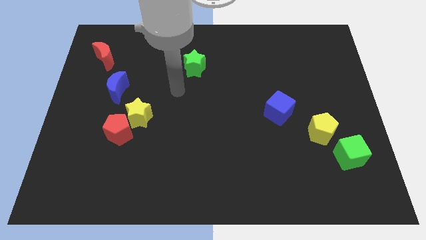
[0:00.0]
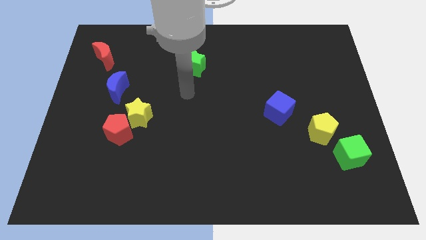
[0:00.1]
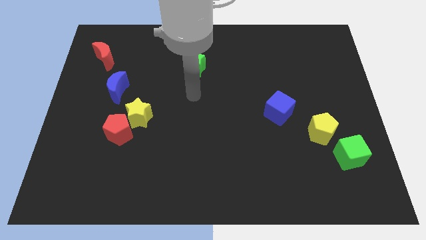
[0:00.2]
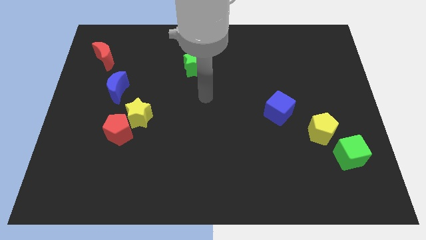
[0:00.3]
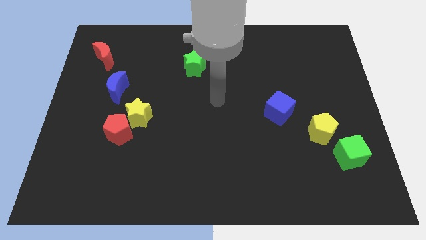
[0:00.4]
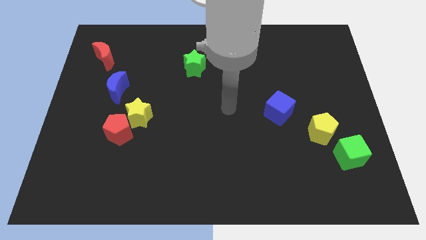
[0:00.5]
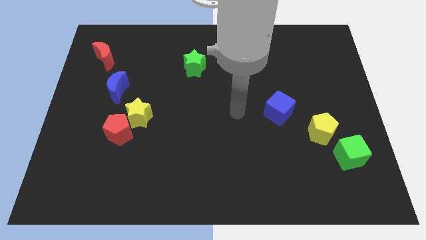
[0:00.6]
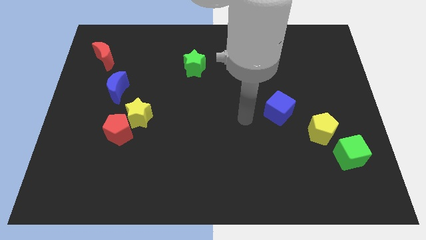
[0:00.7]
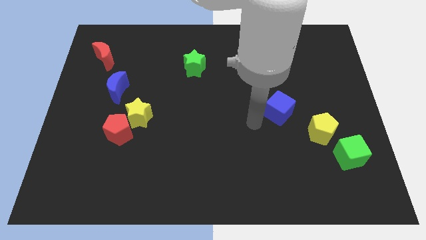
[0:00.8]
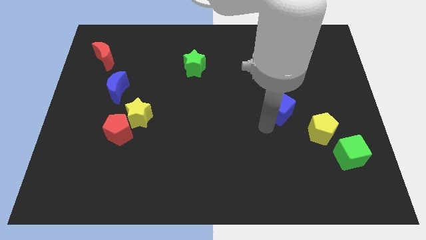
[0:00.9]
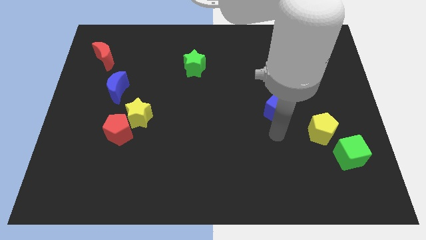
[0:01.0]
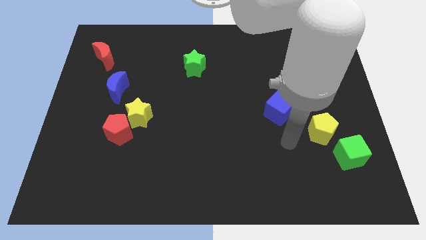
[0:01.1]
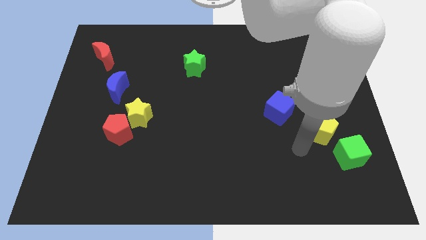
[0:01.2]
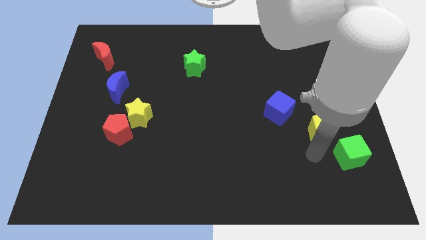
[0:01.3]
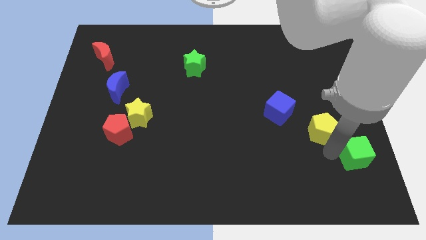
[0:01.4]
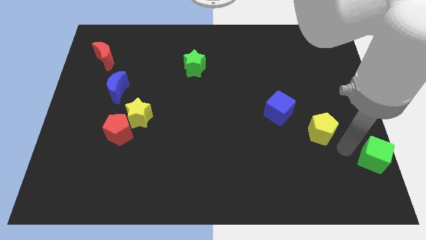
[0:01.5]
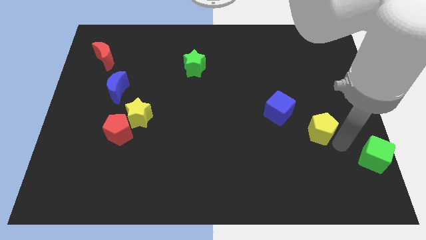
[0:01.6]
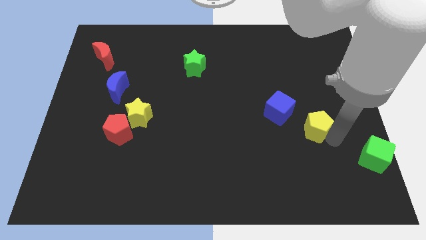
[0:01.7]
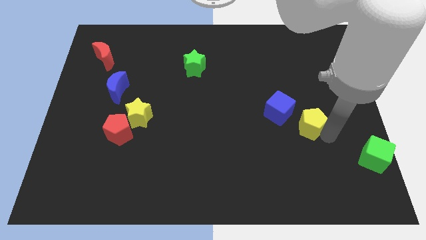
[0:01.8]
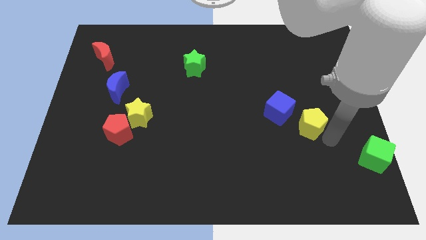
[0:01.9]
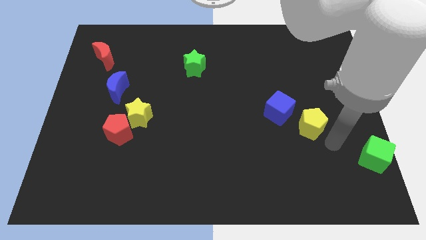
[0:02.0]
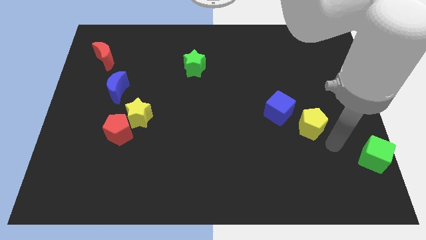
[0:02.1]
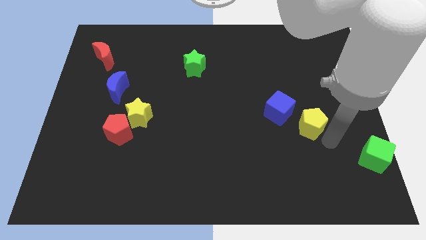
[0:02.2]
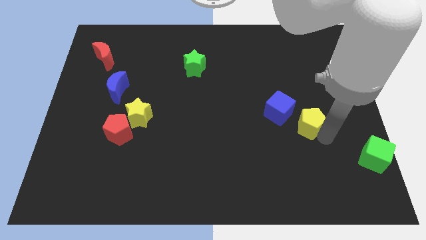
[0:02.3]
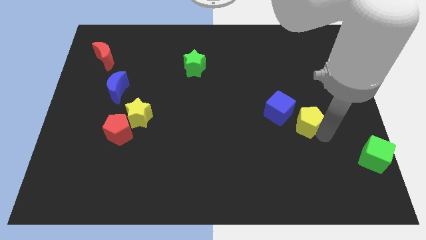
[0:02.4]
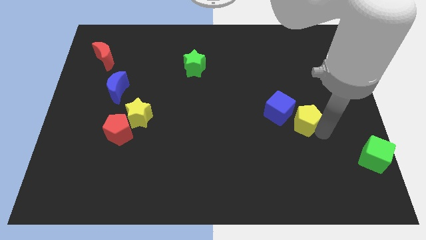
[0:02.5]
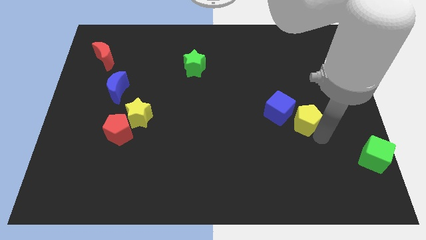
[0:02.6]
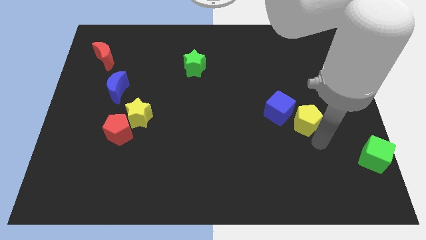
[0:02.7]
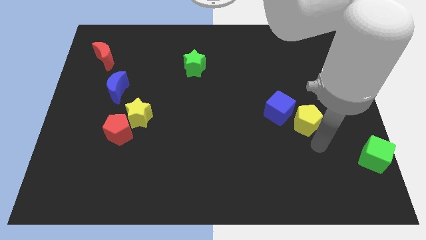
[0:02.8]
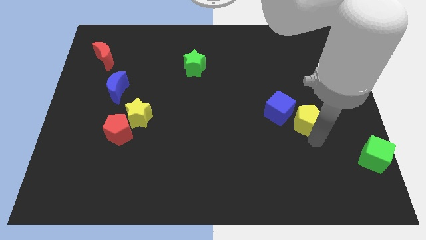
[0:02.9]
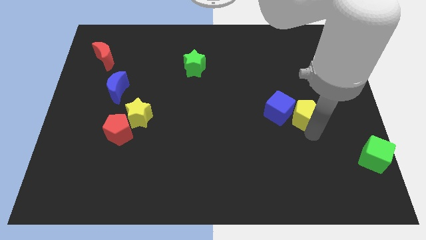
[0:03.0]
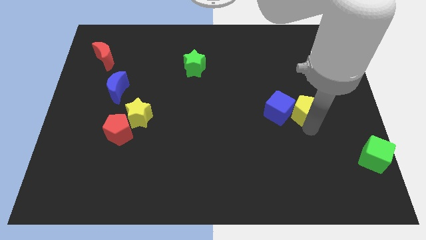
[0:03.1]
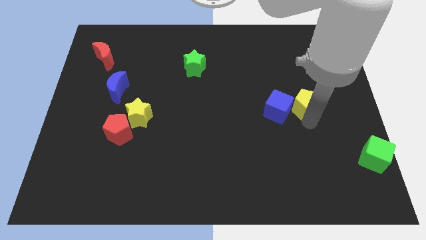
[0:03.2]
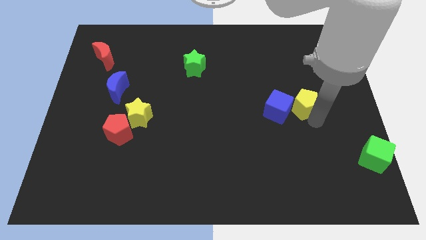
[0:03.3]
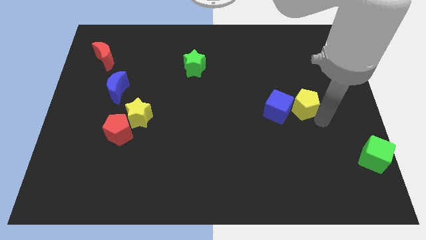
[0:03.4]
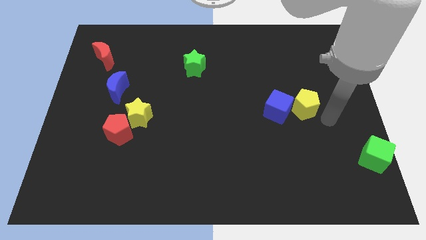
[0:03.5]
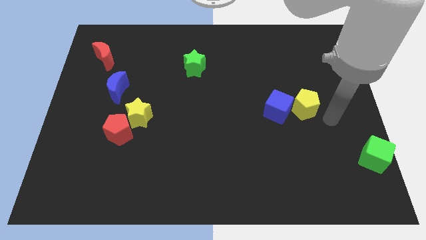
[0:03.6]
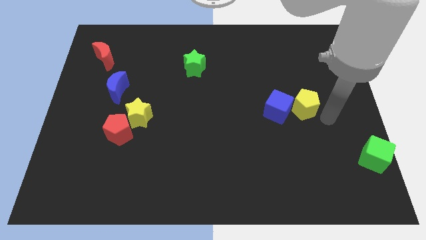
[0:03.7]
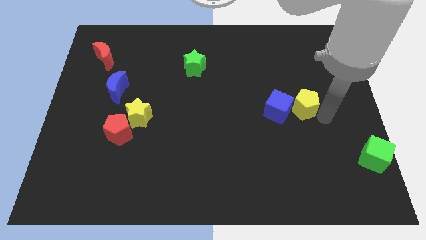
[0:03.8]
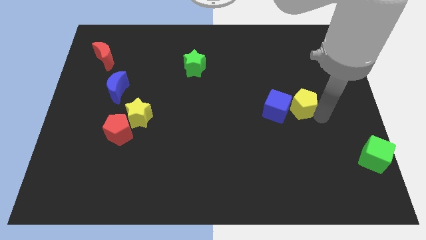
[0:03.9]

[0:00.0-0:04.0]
push the yellow pentagon upwards and then to the left a bit

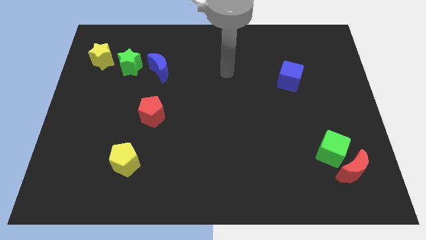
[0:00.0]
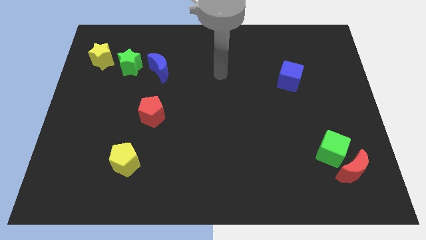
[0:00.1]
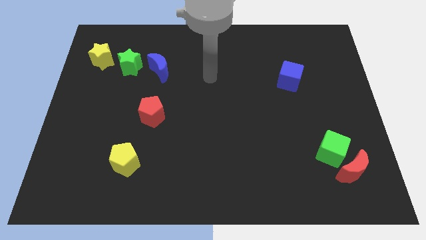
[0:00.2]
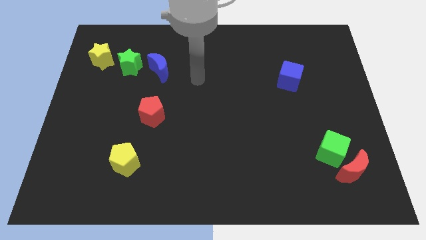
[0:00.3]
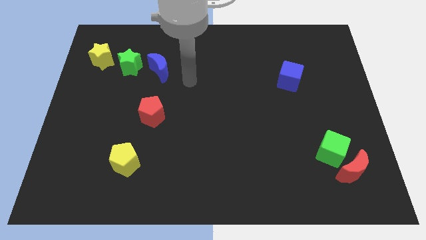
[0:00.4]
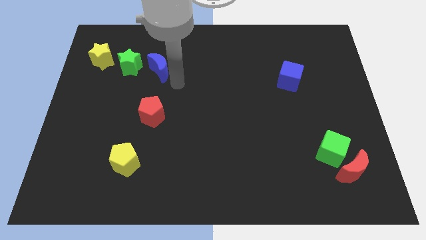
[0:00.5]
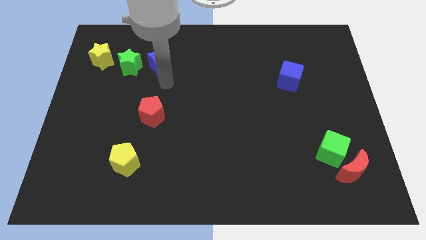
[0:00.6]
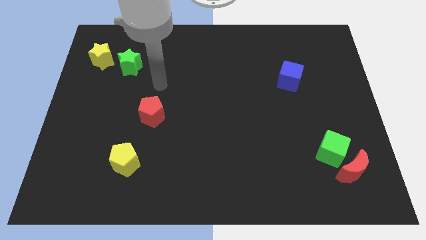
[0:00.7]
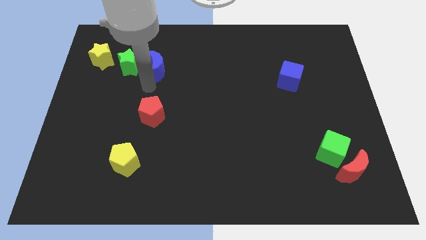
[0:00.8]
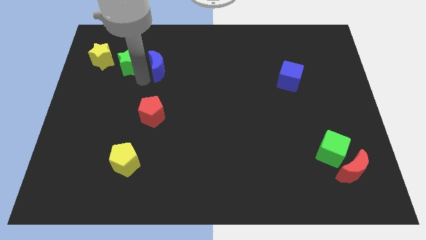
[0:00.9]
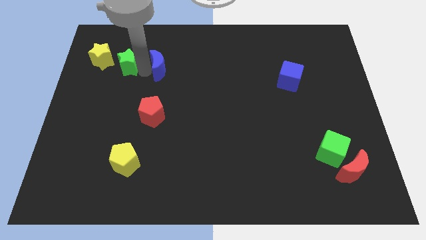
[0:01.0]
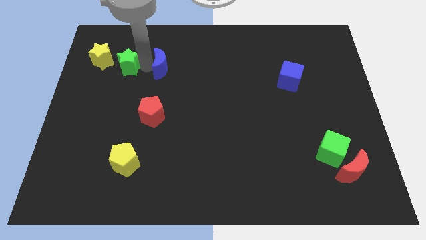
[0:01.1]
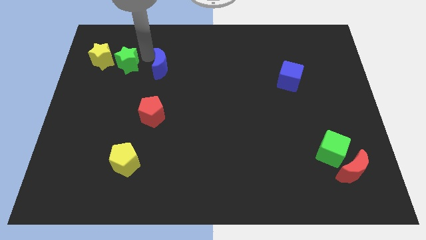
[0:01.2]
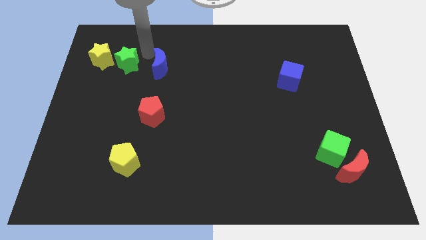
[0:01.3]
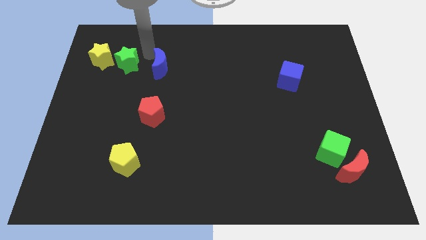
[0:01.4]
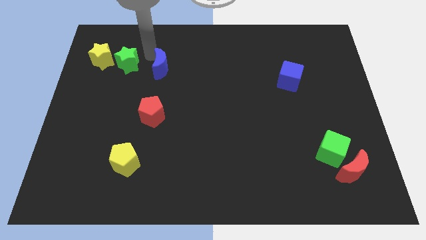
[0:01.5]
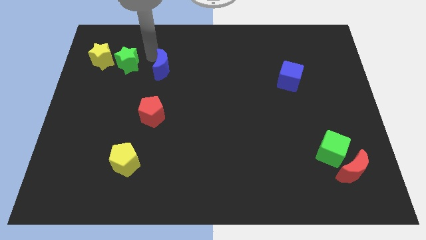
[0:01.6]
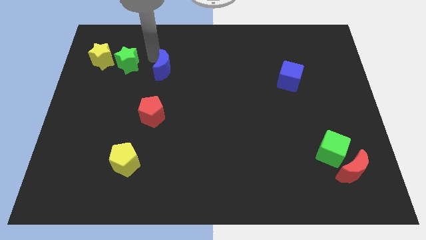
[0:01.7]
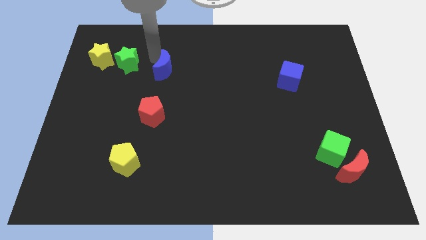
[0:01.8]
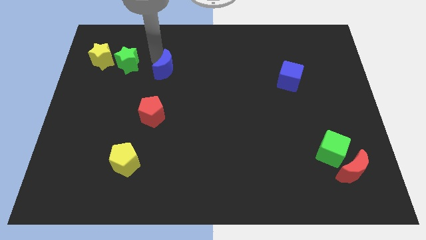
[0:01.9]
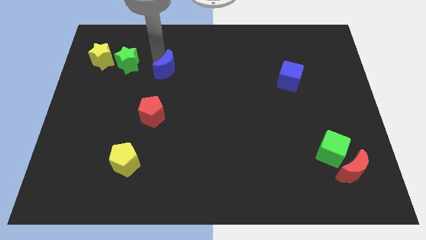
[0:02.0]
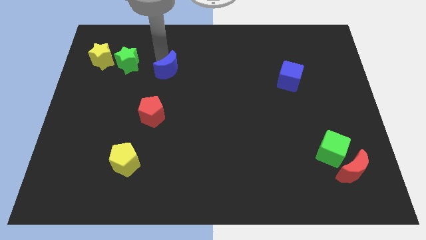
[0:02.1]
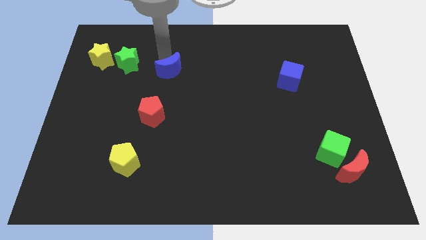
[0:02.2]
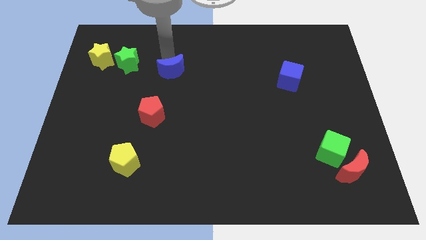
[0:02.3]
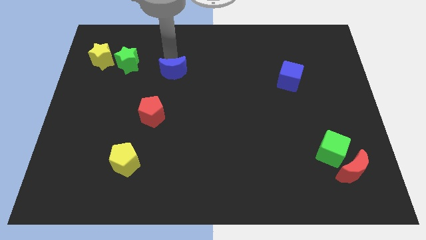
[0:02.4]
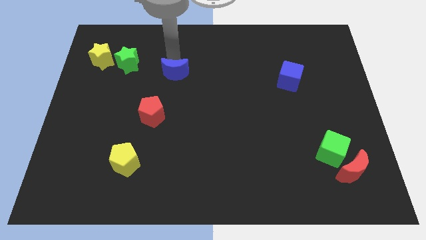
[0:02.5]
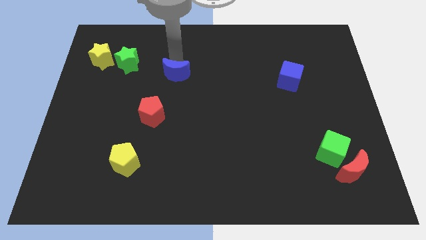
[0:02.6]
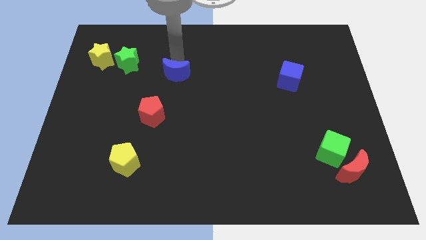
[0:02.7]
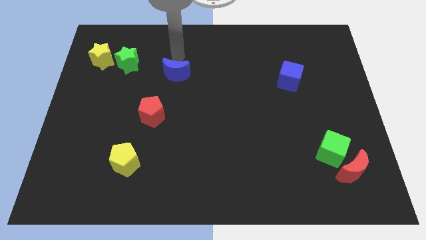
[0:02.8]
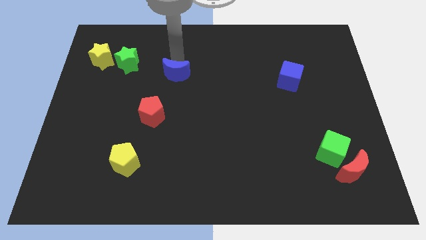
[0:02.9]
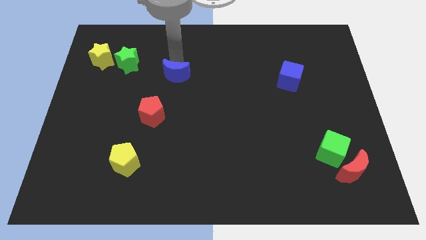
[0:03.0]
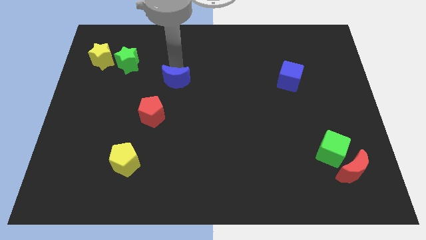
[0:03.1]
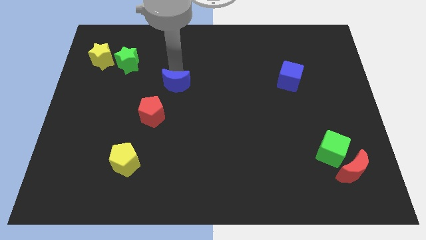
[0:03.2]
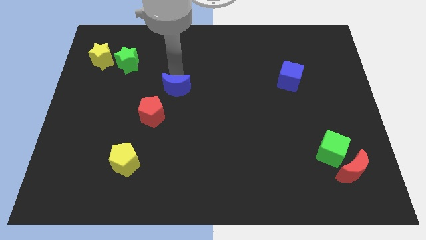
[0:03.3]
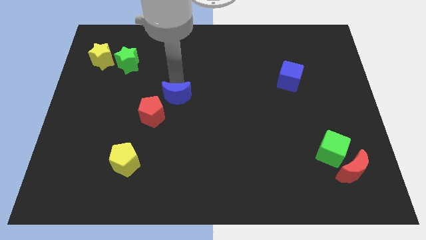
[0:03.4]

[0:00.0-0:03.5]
slide the blue moon a little downwards

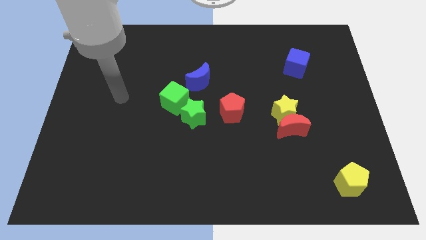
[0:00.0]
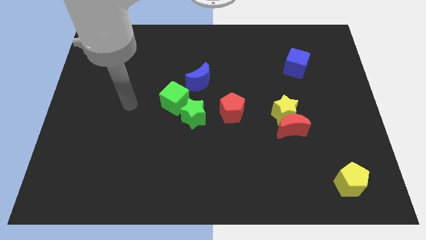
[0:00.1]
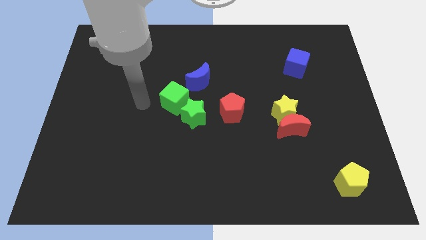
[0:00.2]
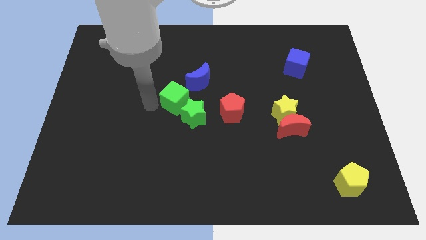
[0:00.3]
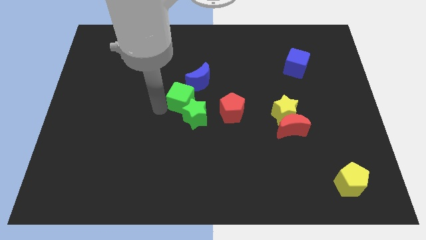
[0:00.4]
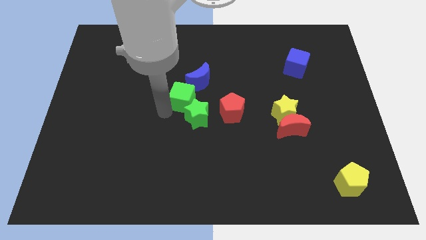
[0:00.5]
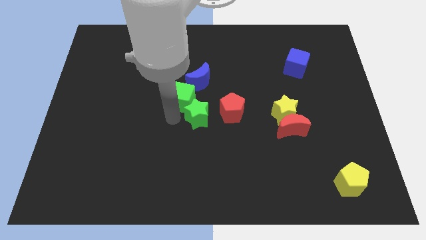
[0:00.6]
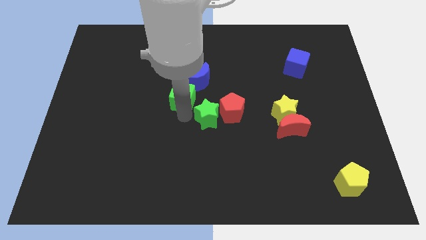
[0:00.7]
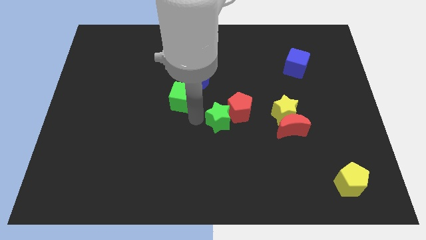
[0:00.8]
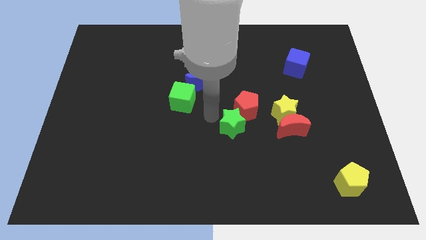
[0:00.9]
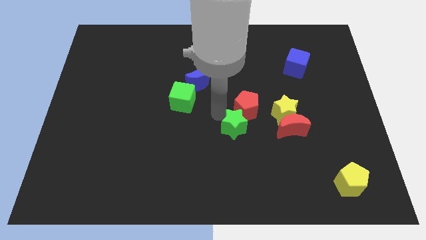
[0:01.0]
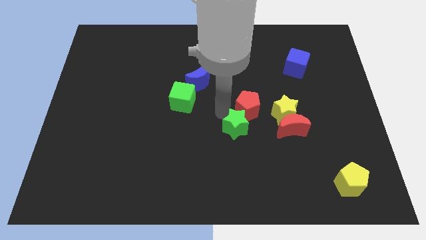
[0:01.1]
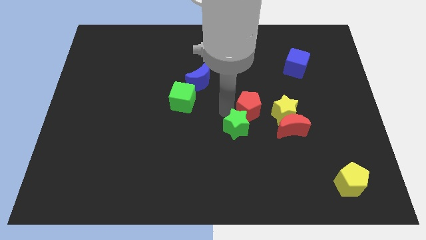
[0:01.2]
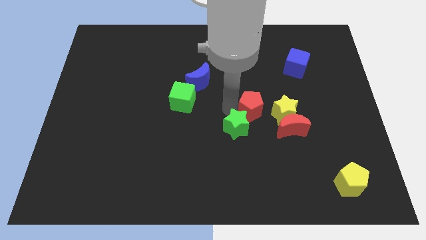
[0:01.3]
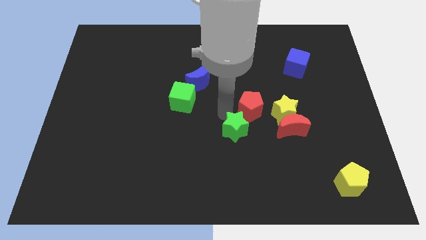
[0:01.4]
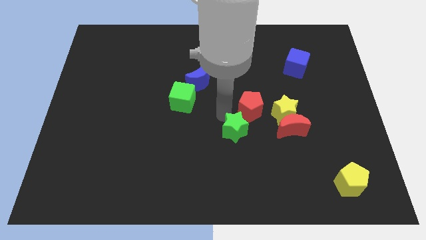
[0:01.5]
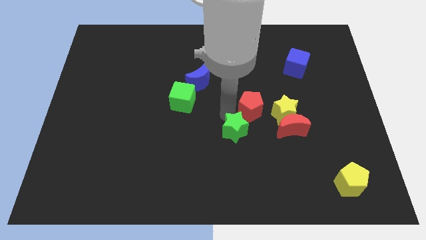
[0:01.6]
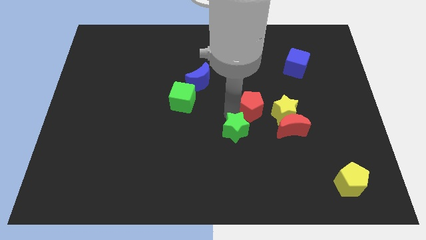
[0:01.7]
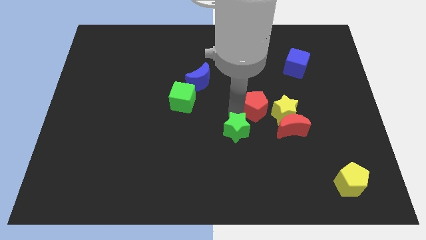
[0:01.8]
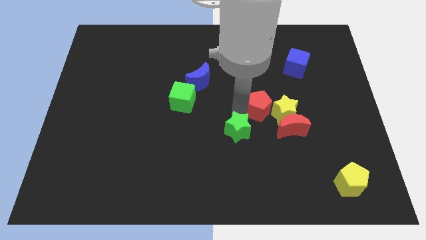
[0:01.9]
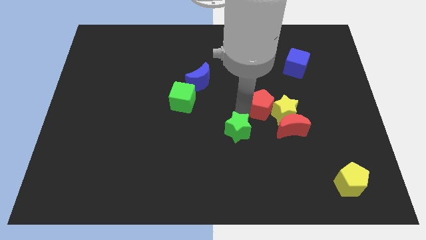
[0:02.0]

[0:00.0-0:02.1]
slide the red pentagon to the right a little bit
